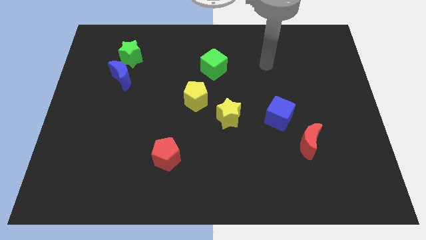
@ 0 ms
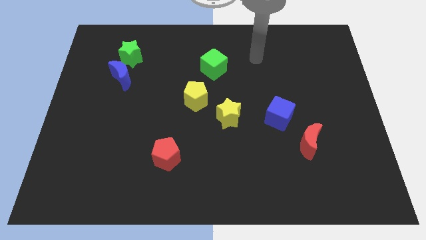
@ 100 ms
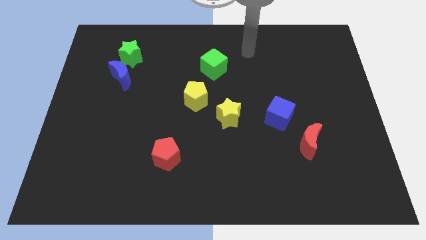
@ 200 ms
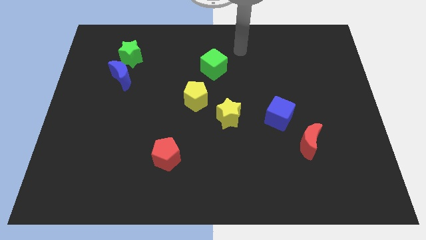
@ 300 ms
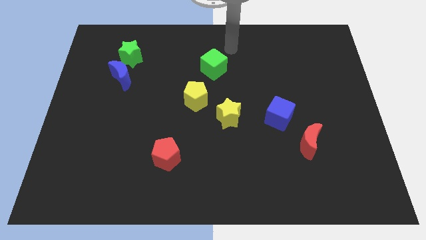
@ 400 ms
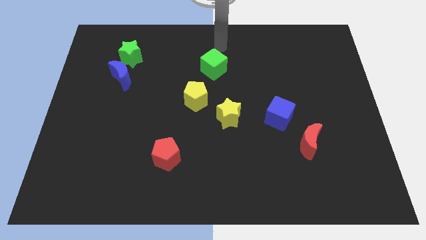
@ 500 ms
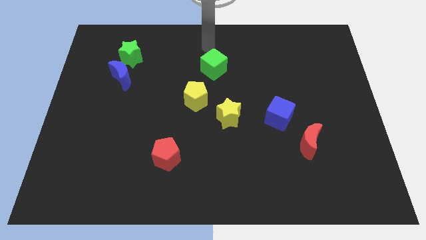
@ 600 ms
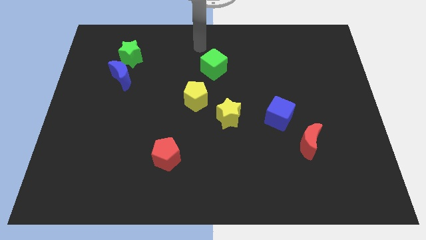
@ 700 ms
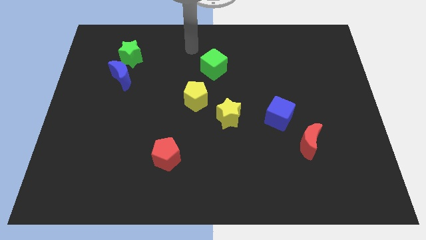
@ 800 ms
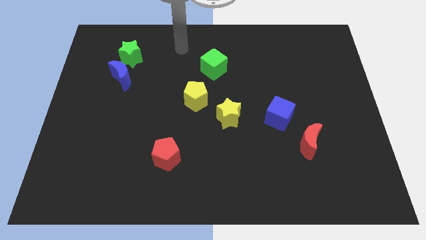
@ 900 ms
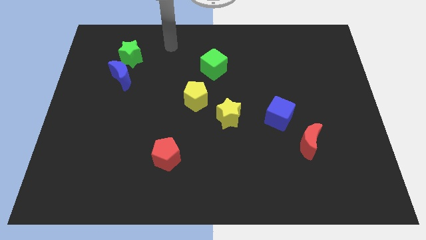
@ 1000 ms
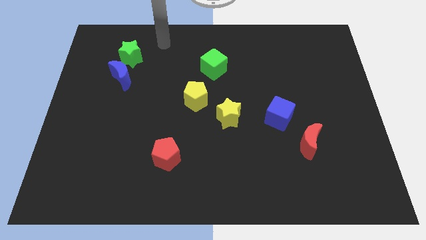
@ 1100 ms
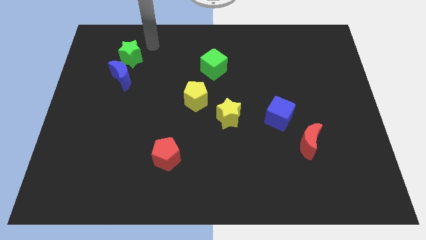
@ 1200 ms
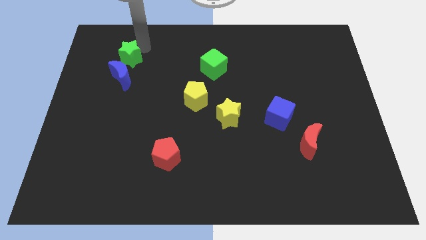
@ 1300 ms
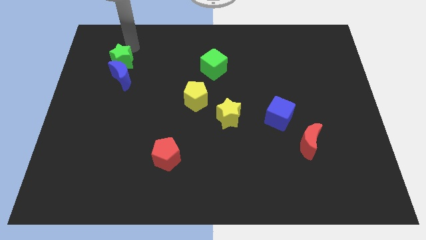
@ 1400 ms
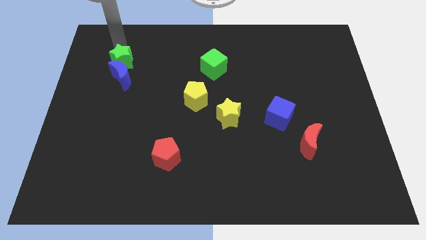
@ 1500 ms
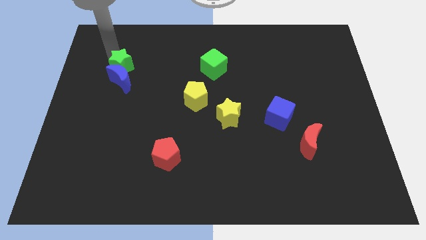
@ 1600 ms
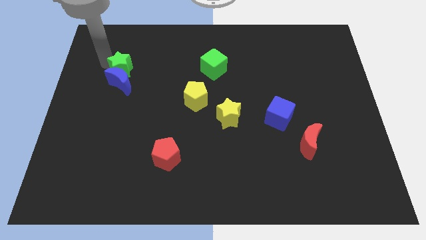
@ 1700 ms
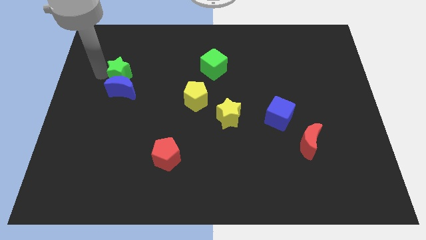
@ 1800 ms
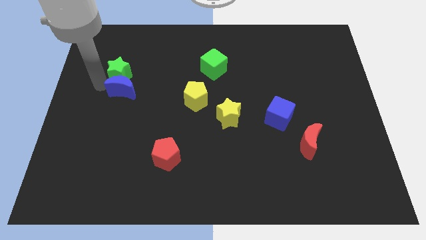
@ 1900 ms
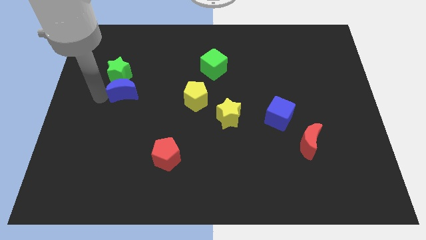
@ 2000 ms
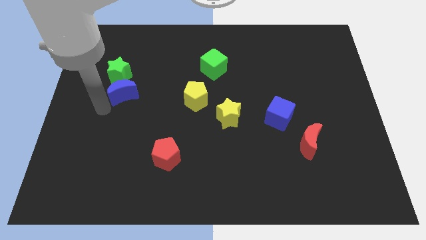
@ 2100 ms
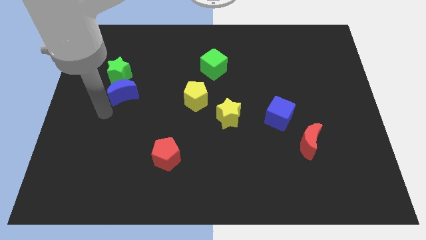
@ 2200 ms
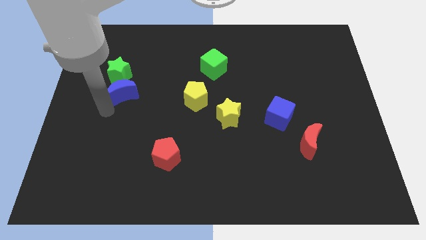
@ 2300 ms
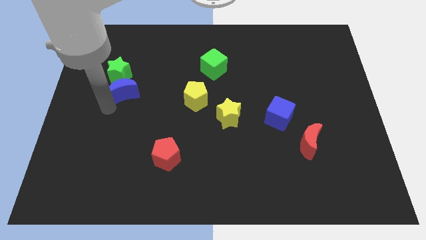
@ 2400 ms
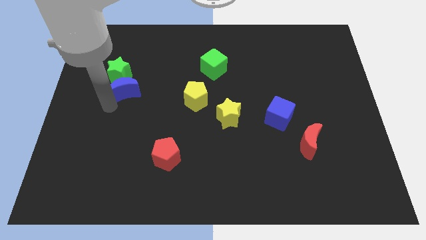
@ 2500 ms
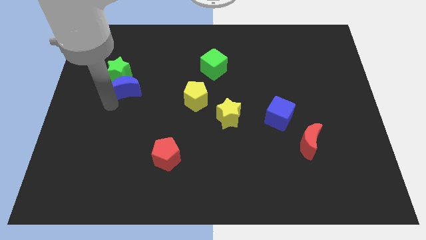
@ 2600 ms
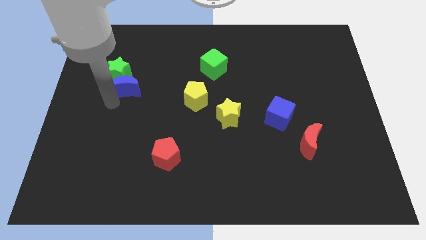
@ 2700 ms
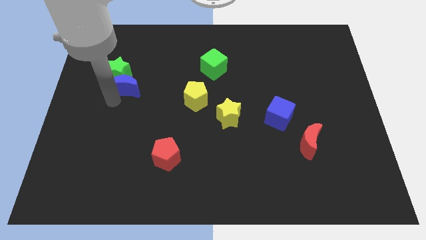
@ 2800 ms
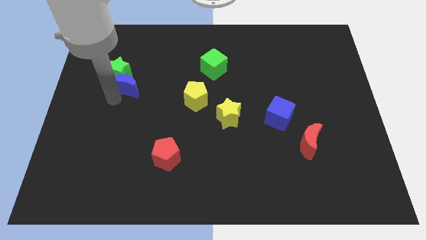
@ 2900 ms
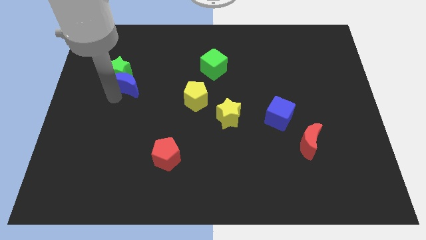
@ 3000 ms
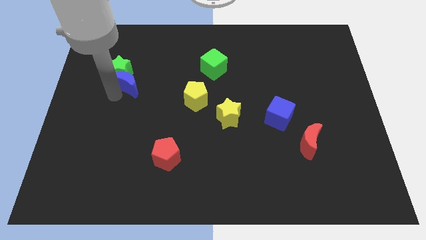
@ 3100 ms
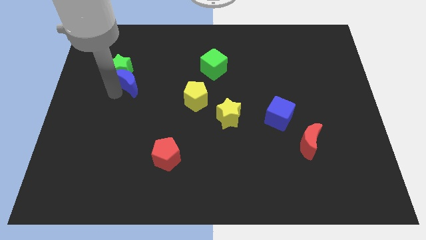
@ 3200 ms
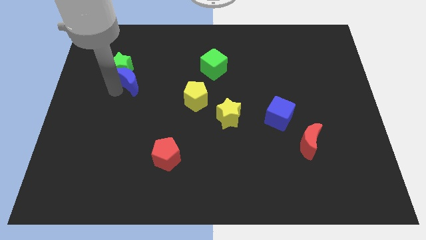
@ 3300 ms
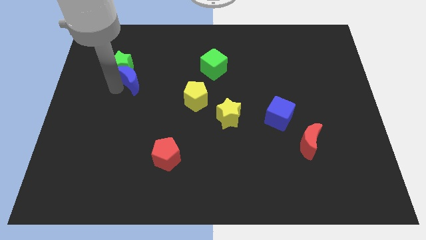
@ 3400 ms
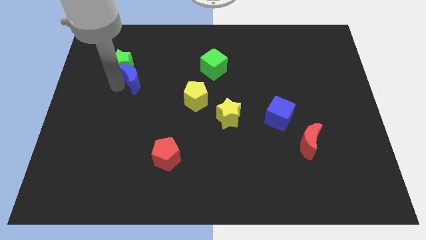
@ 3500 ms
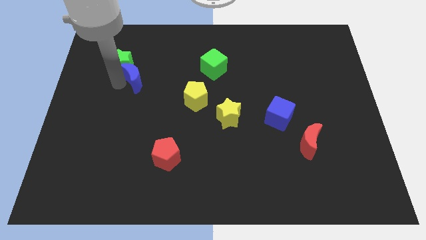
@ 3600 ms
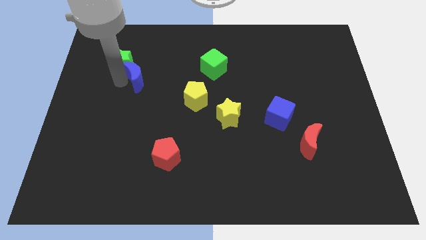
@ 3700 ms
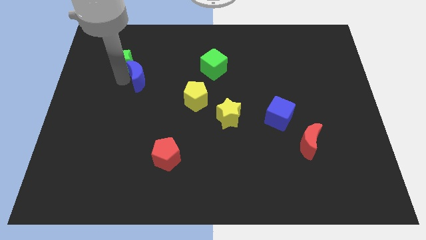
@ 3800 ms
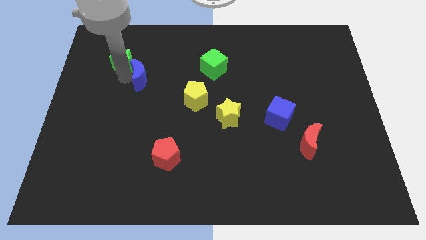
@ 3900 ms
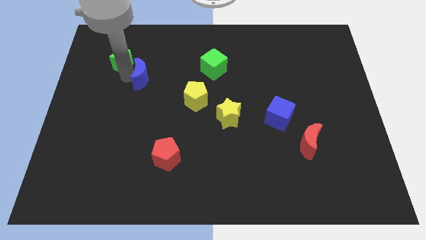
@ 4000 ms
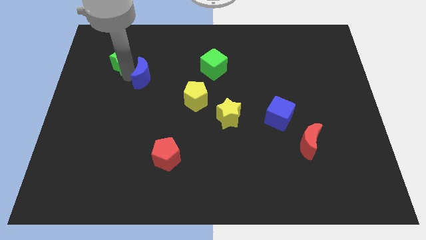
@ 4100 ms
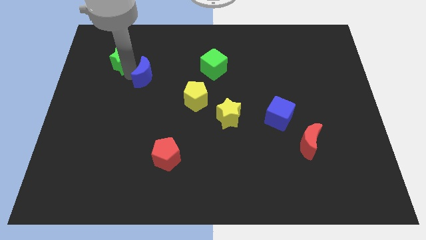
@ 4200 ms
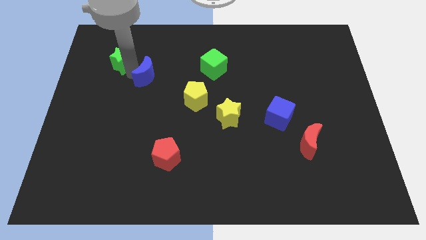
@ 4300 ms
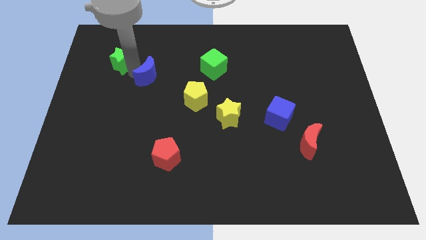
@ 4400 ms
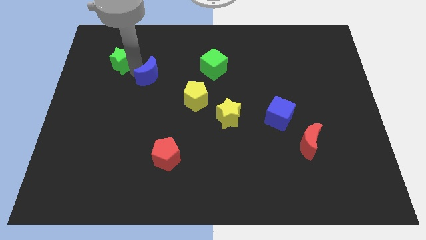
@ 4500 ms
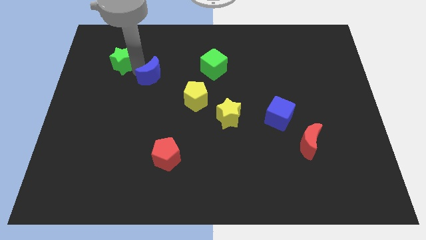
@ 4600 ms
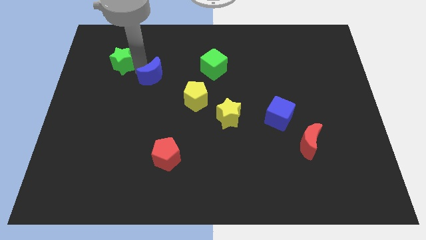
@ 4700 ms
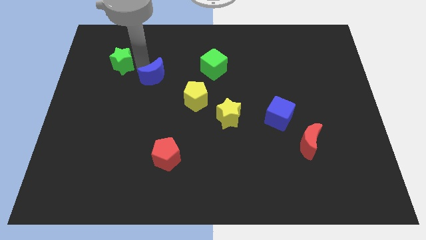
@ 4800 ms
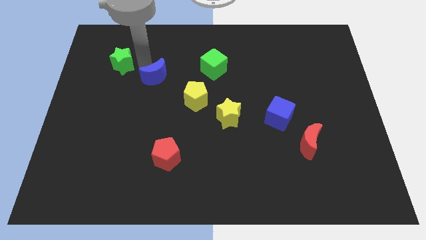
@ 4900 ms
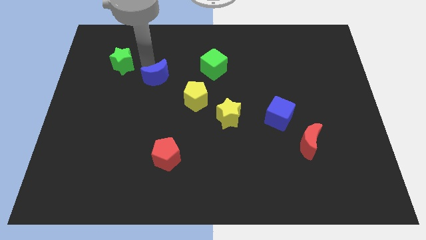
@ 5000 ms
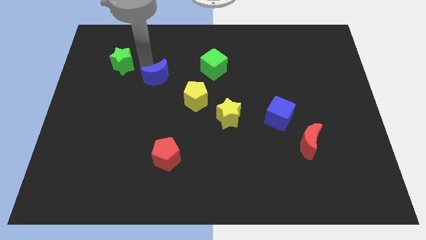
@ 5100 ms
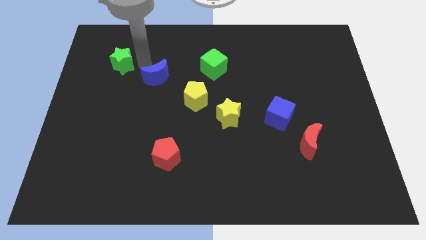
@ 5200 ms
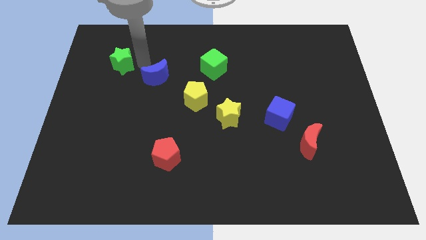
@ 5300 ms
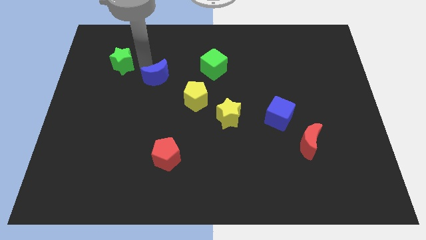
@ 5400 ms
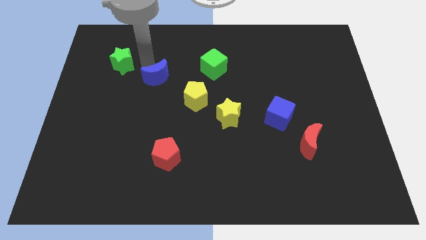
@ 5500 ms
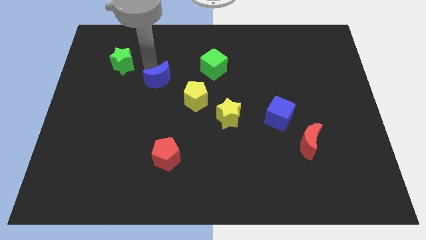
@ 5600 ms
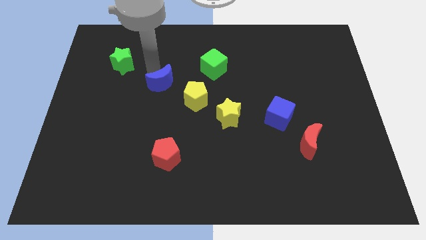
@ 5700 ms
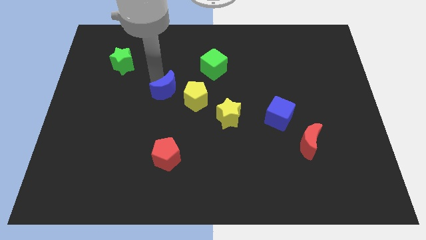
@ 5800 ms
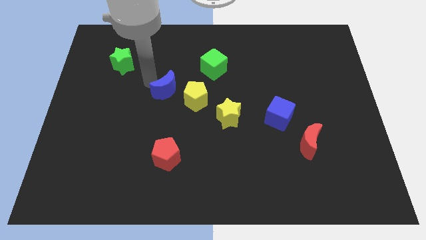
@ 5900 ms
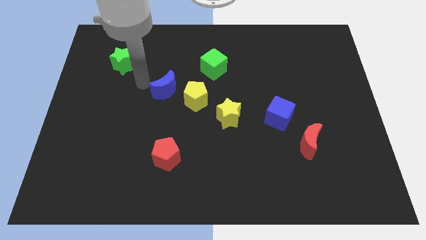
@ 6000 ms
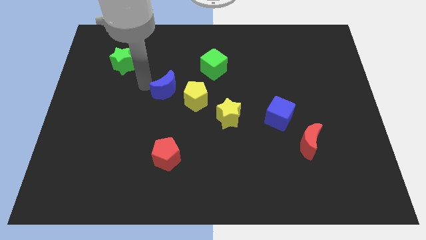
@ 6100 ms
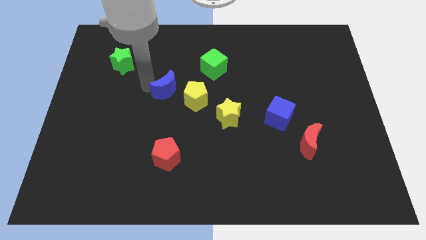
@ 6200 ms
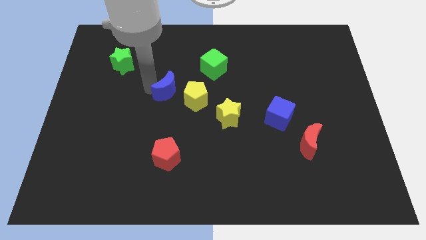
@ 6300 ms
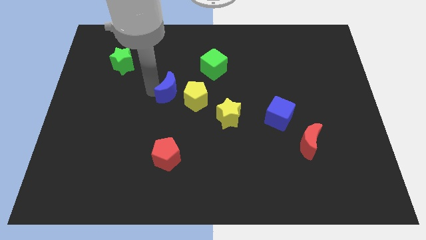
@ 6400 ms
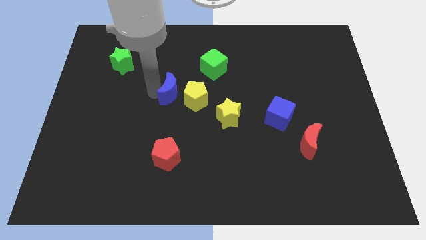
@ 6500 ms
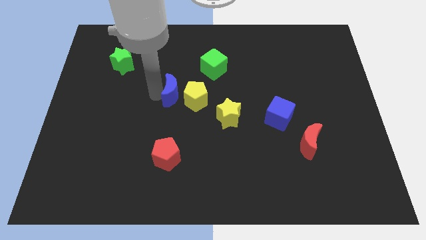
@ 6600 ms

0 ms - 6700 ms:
move the blue moon to the yellow pentagon

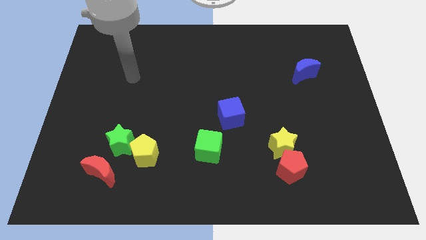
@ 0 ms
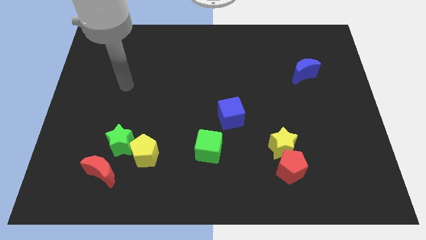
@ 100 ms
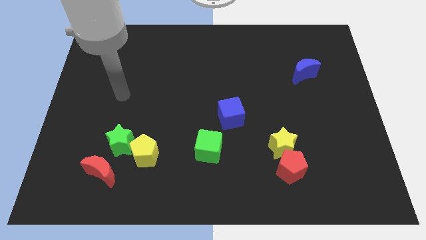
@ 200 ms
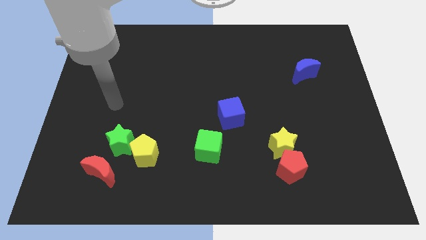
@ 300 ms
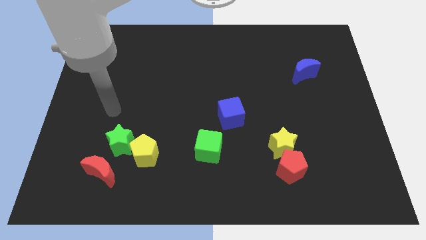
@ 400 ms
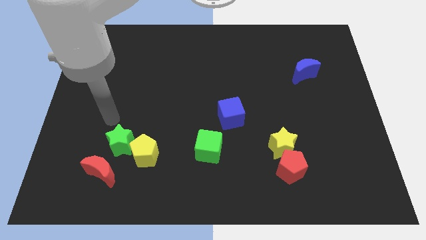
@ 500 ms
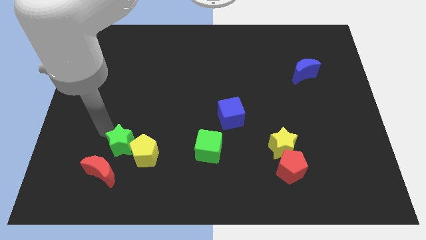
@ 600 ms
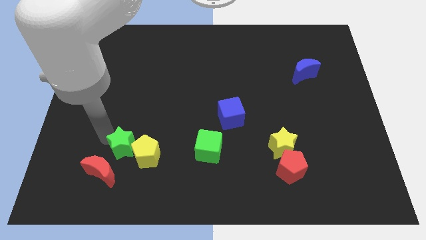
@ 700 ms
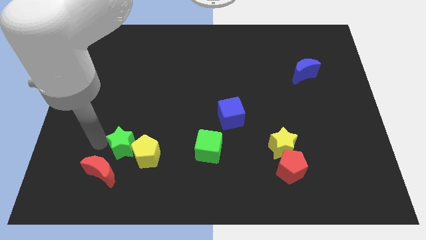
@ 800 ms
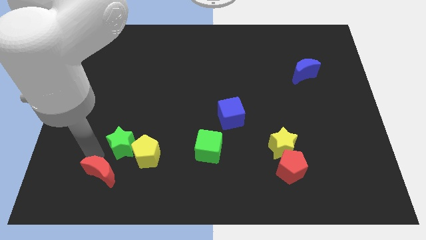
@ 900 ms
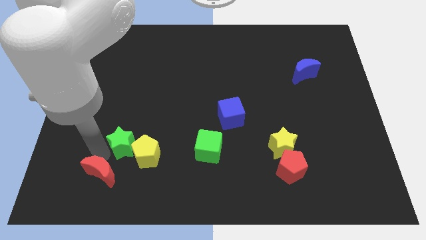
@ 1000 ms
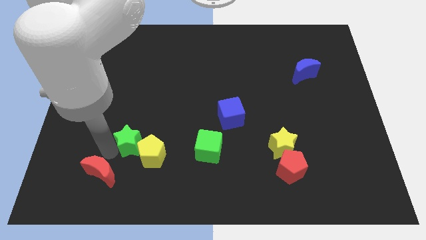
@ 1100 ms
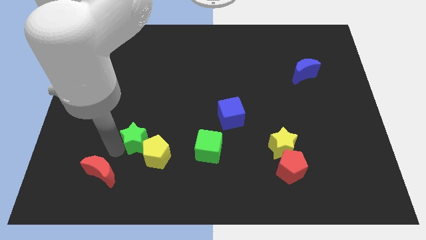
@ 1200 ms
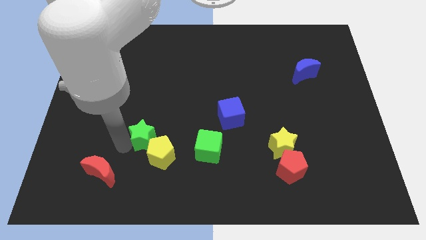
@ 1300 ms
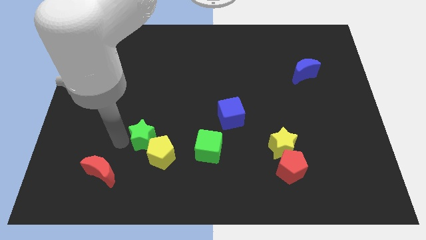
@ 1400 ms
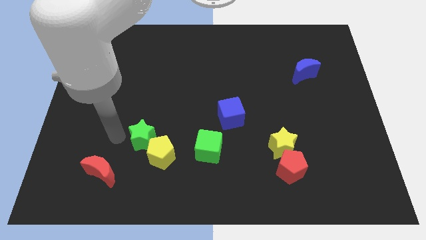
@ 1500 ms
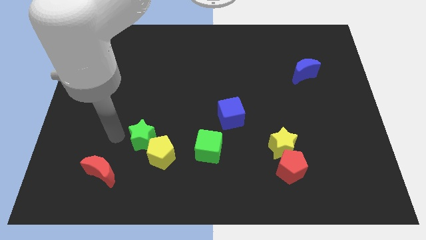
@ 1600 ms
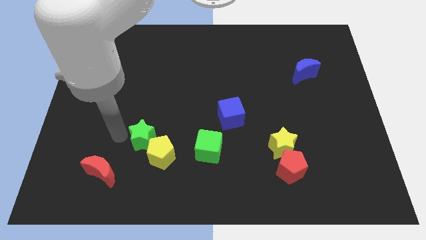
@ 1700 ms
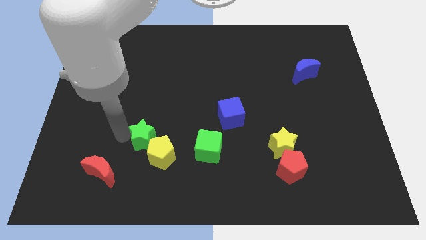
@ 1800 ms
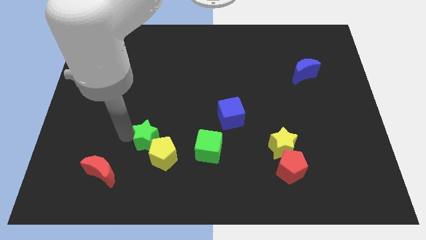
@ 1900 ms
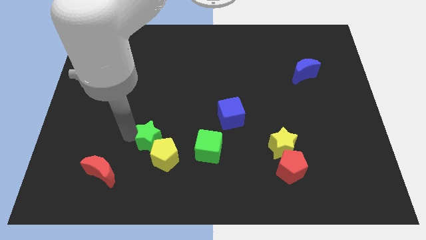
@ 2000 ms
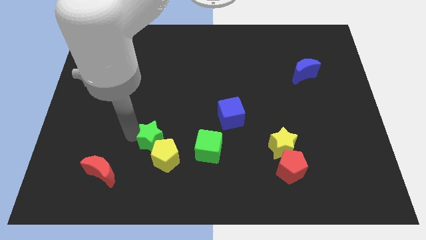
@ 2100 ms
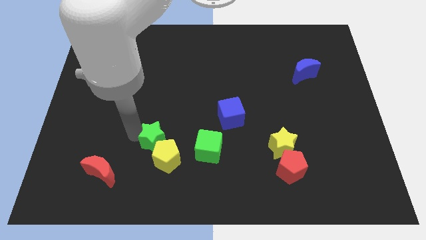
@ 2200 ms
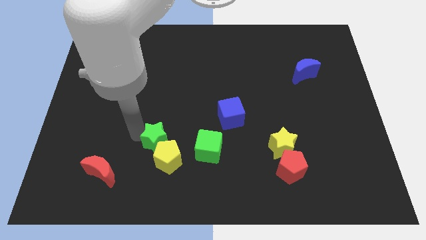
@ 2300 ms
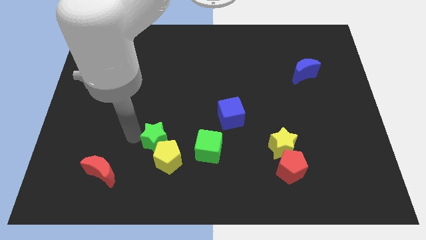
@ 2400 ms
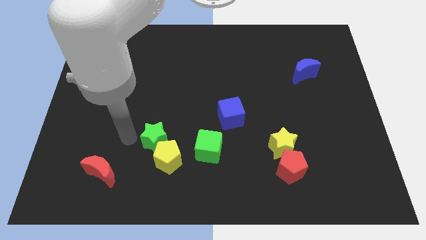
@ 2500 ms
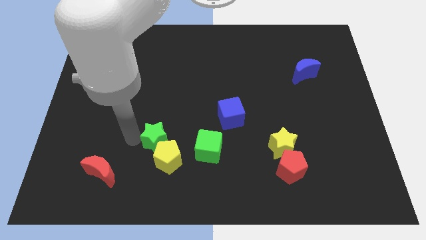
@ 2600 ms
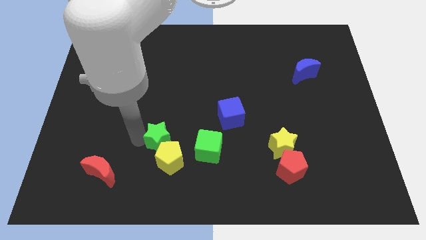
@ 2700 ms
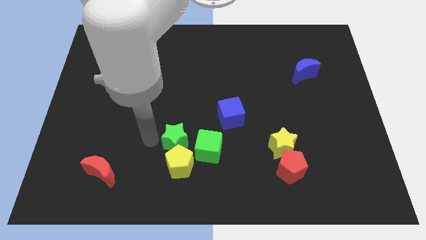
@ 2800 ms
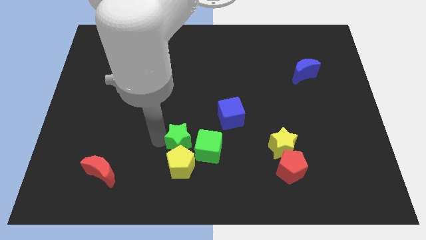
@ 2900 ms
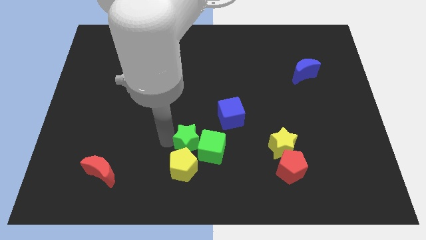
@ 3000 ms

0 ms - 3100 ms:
move the green star towards the green cube
